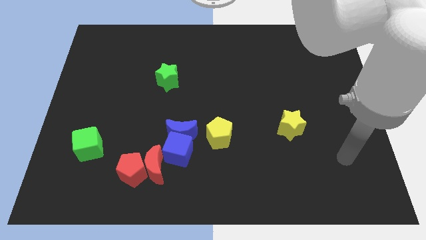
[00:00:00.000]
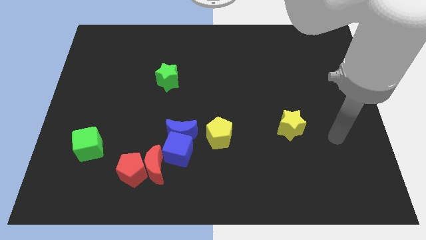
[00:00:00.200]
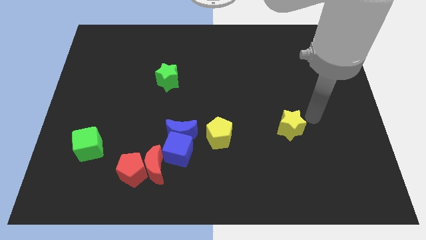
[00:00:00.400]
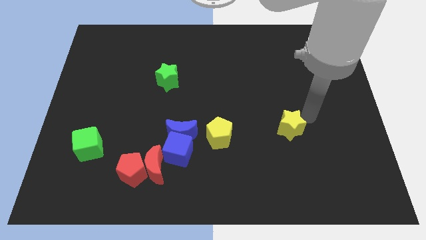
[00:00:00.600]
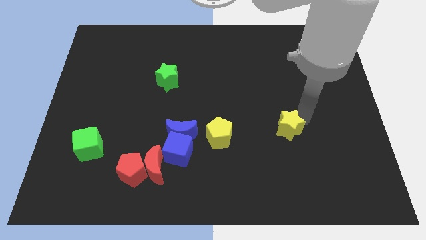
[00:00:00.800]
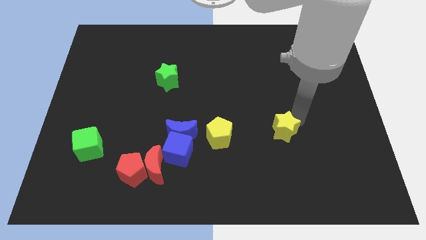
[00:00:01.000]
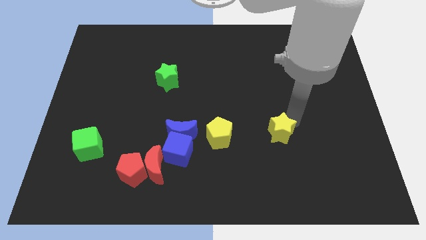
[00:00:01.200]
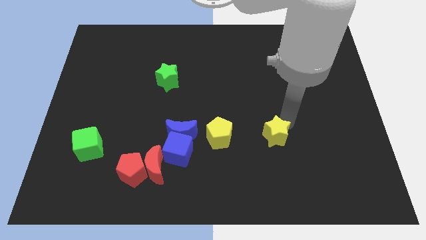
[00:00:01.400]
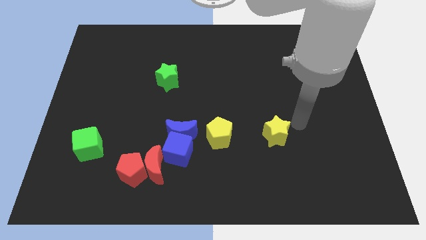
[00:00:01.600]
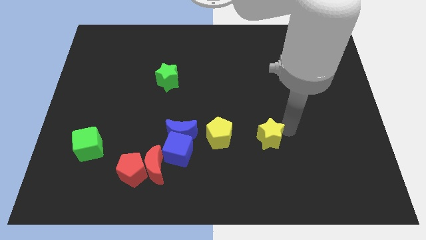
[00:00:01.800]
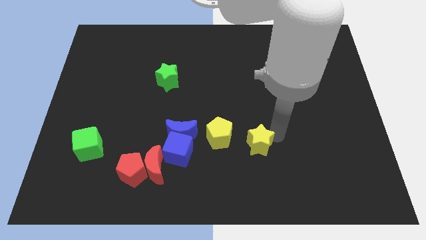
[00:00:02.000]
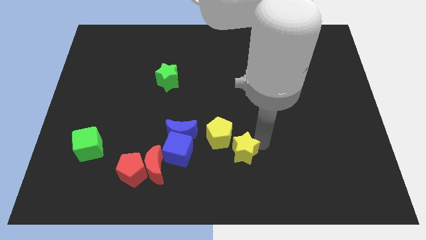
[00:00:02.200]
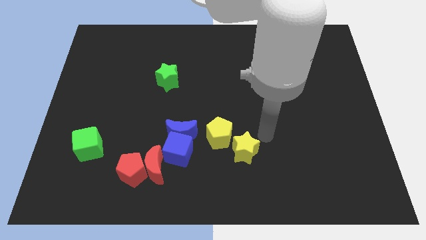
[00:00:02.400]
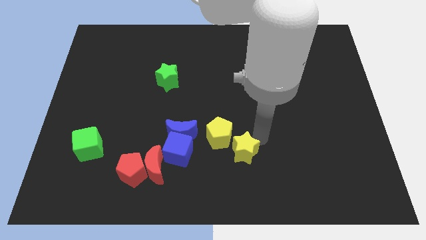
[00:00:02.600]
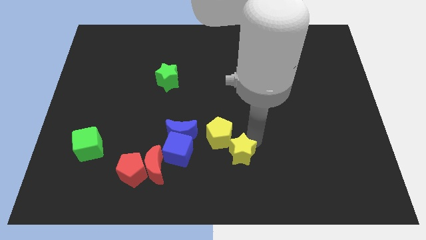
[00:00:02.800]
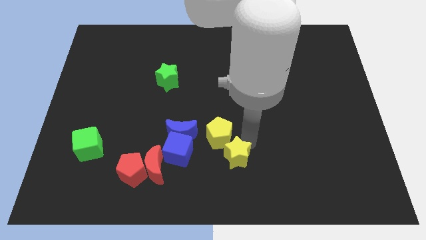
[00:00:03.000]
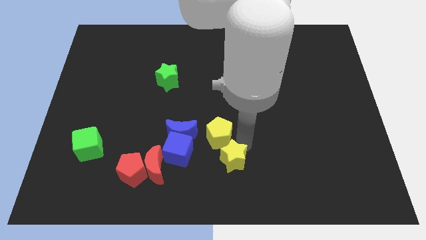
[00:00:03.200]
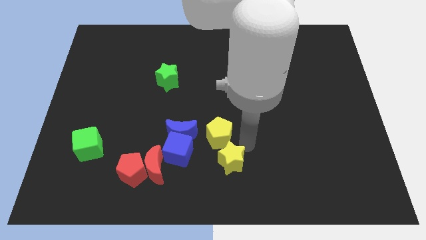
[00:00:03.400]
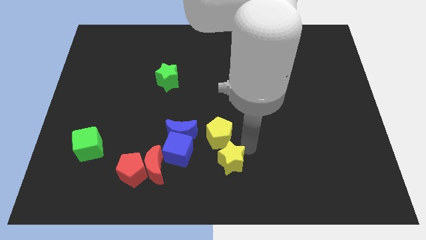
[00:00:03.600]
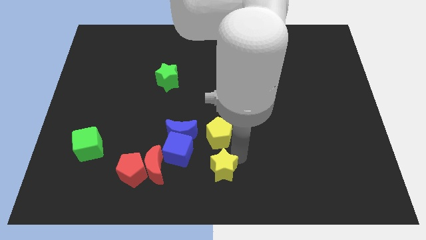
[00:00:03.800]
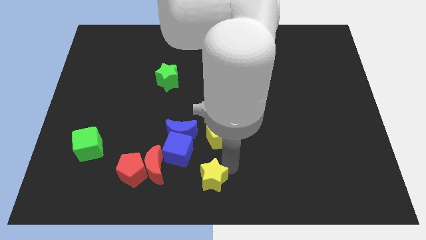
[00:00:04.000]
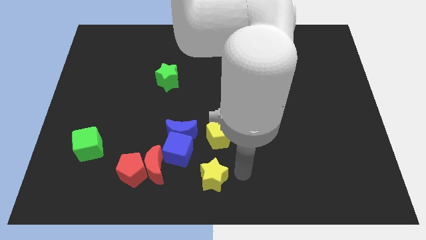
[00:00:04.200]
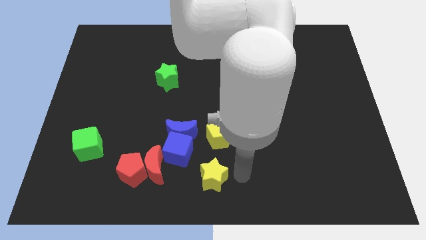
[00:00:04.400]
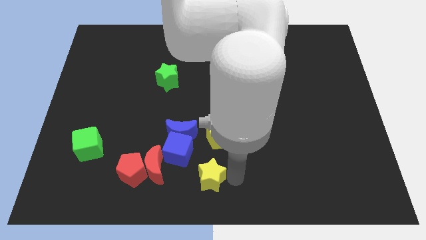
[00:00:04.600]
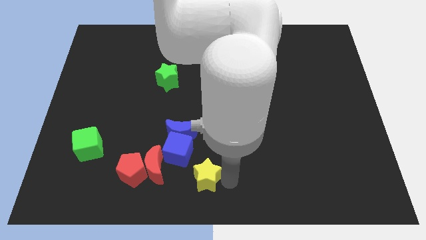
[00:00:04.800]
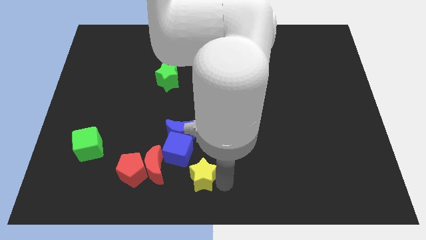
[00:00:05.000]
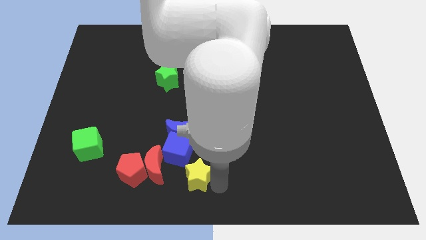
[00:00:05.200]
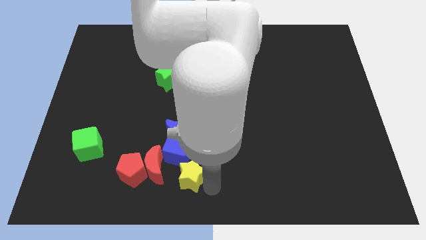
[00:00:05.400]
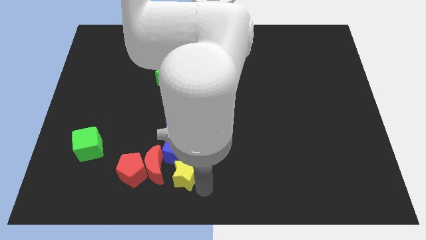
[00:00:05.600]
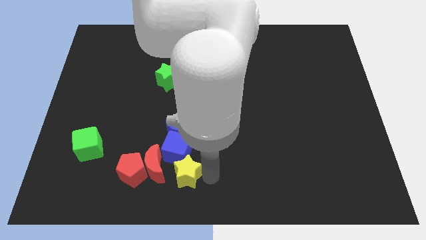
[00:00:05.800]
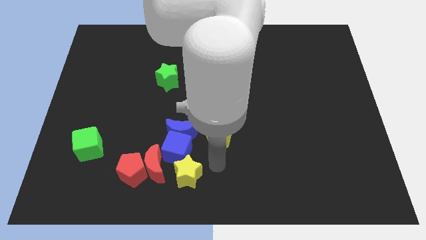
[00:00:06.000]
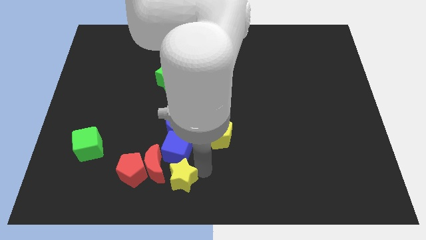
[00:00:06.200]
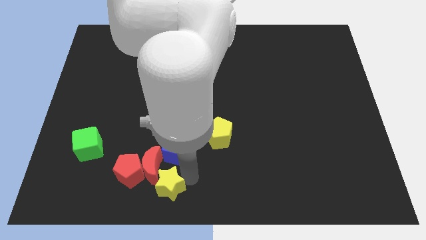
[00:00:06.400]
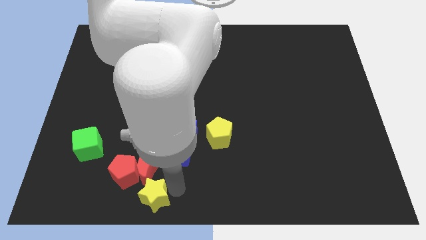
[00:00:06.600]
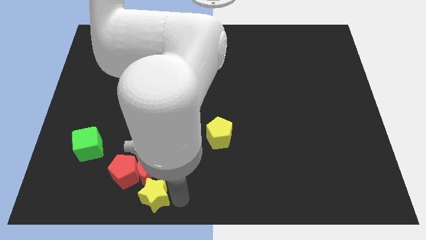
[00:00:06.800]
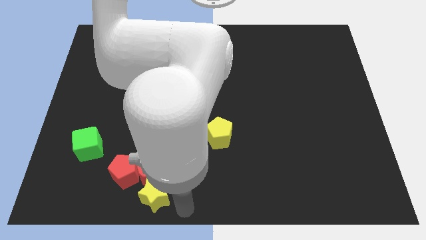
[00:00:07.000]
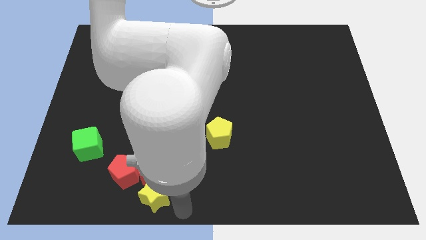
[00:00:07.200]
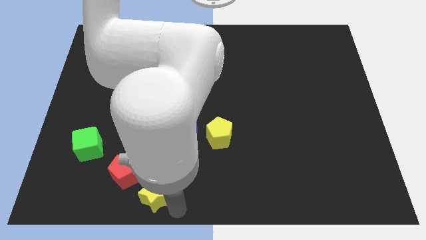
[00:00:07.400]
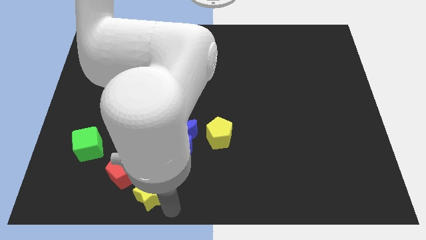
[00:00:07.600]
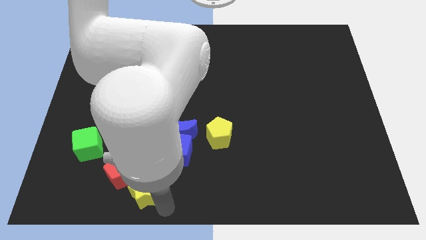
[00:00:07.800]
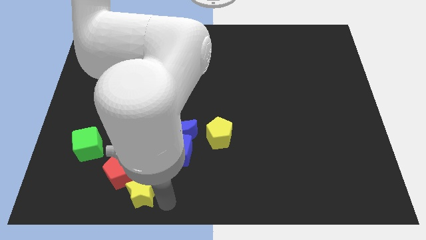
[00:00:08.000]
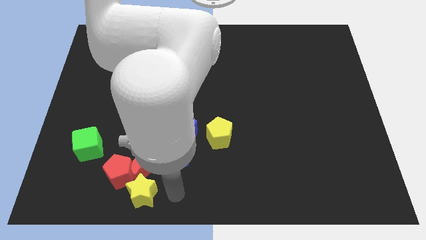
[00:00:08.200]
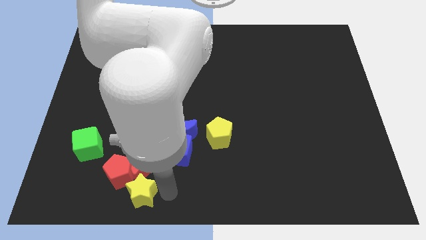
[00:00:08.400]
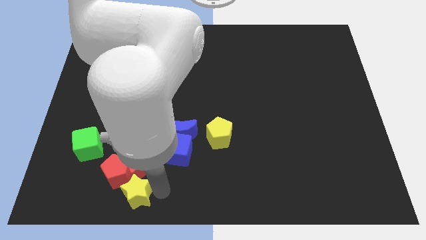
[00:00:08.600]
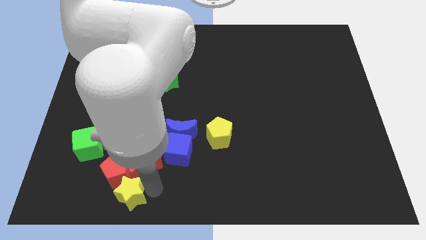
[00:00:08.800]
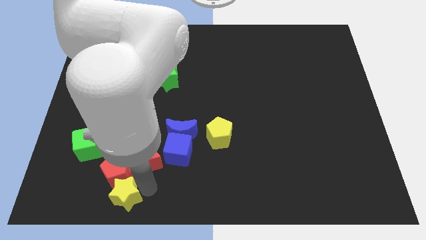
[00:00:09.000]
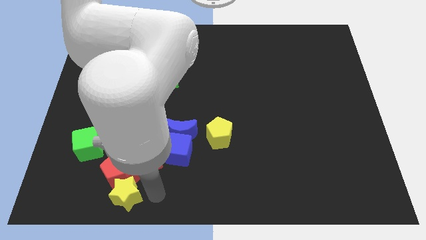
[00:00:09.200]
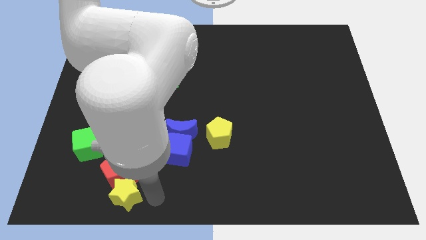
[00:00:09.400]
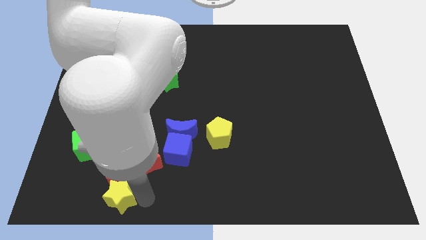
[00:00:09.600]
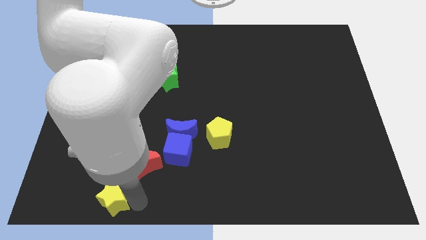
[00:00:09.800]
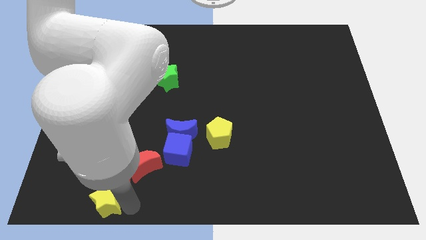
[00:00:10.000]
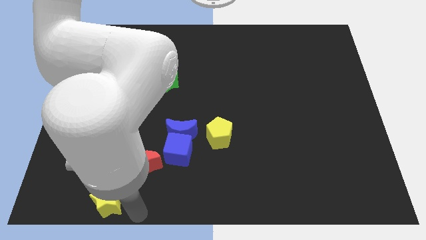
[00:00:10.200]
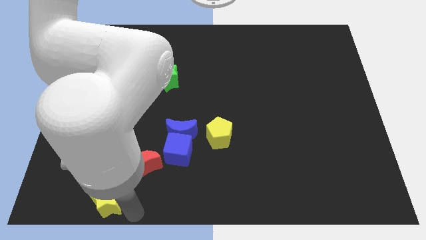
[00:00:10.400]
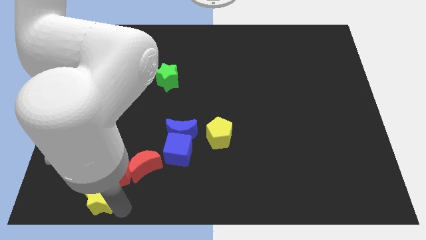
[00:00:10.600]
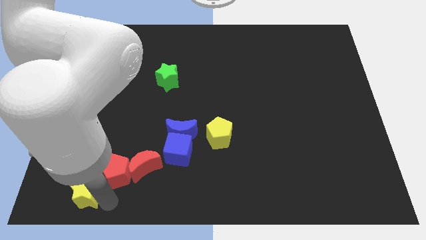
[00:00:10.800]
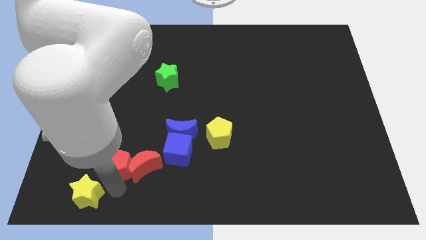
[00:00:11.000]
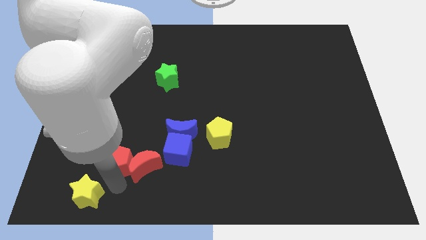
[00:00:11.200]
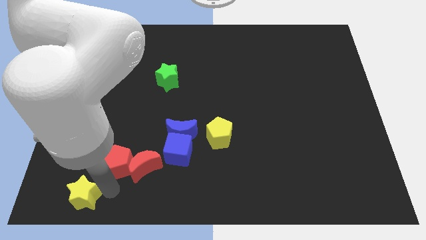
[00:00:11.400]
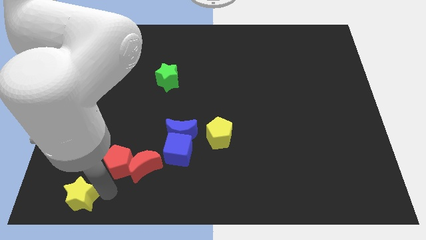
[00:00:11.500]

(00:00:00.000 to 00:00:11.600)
push the yellow star to the bottom left corner

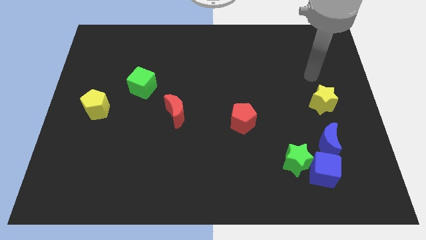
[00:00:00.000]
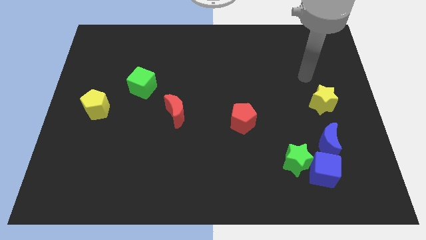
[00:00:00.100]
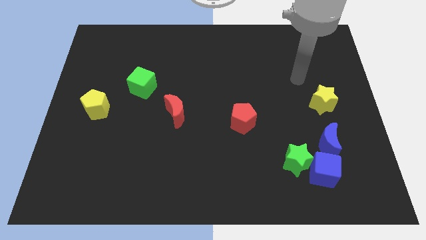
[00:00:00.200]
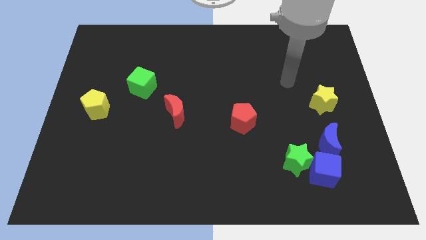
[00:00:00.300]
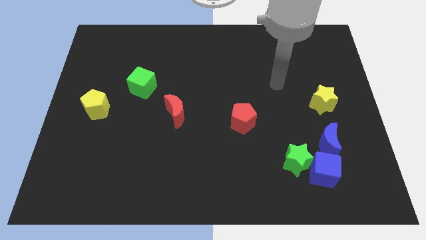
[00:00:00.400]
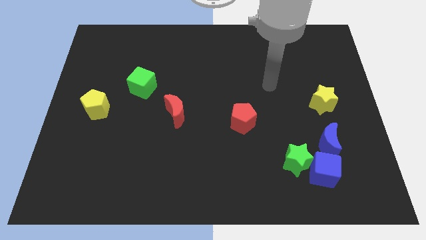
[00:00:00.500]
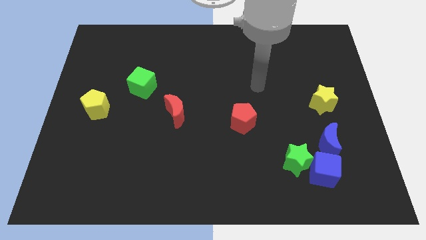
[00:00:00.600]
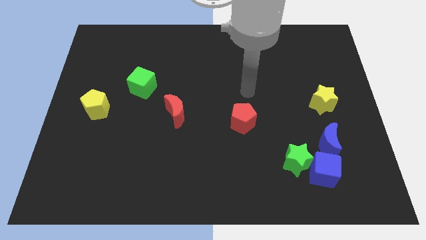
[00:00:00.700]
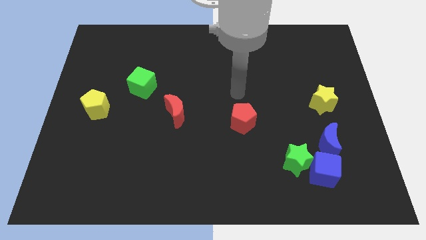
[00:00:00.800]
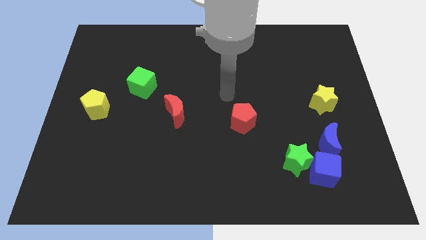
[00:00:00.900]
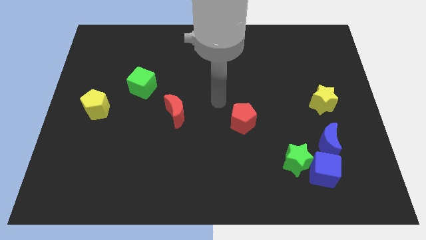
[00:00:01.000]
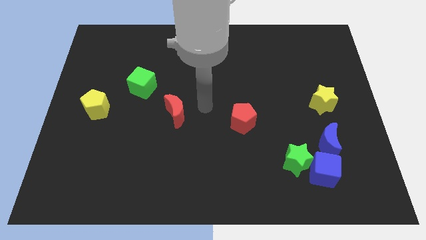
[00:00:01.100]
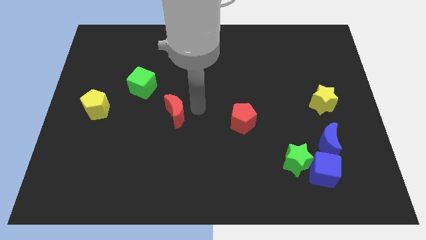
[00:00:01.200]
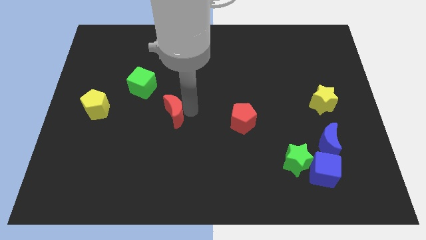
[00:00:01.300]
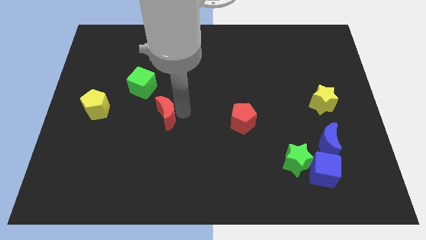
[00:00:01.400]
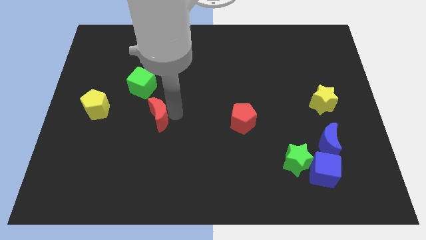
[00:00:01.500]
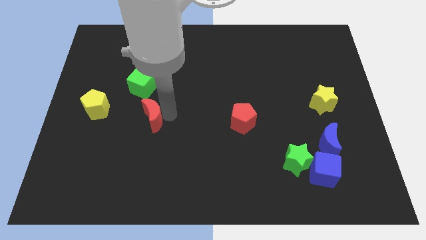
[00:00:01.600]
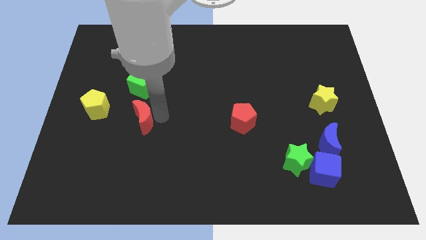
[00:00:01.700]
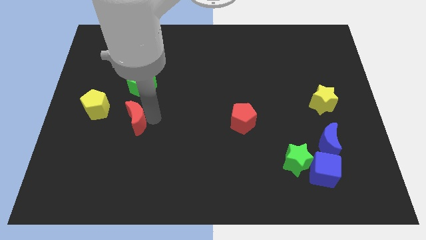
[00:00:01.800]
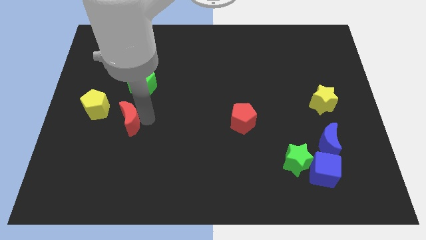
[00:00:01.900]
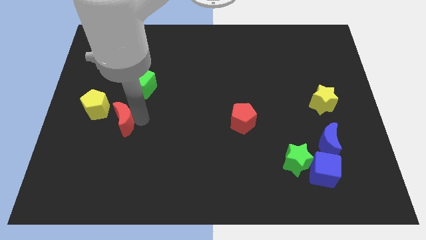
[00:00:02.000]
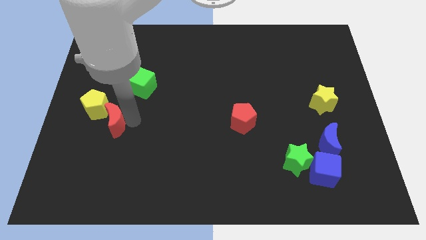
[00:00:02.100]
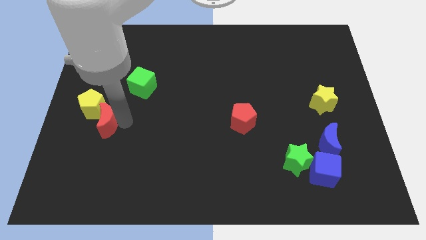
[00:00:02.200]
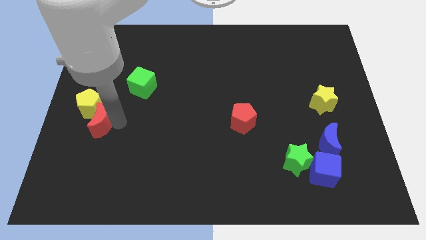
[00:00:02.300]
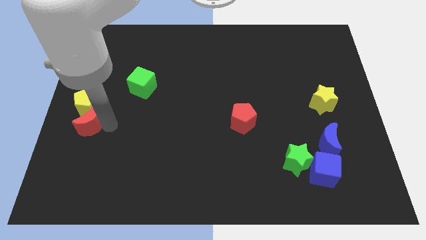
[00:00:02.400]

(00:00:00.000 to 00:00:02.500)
push the red moon to the left side of the board
